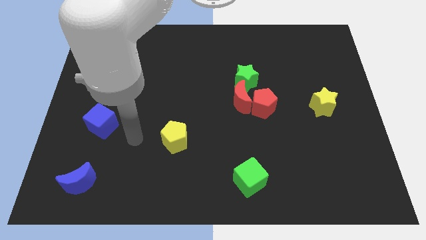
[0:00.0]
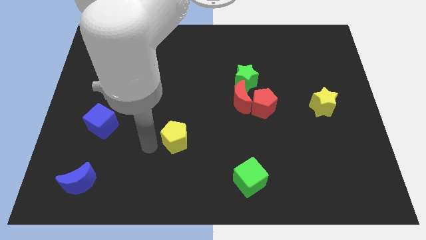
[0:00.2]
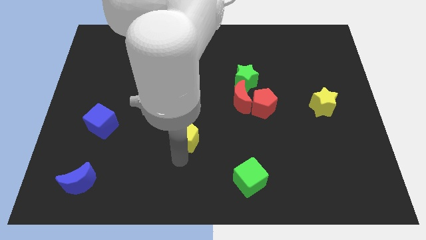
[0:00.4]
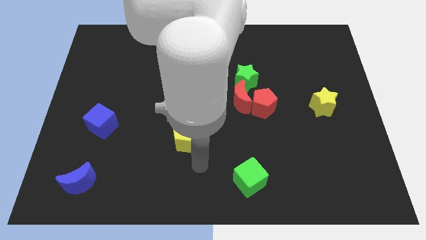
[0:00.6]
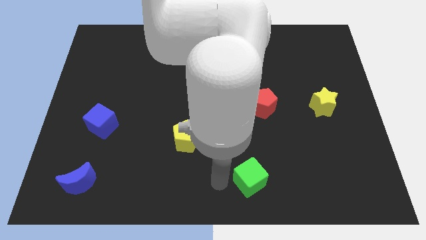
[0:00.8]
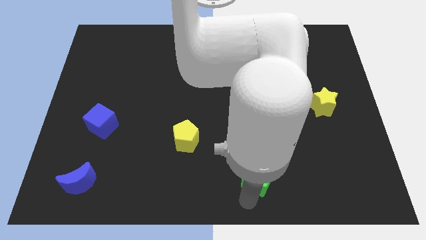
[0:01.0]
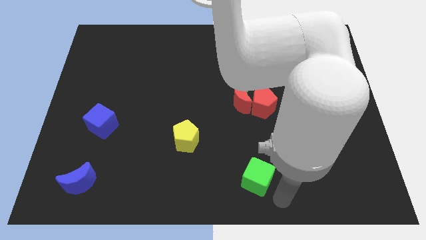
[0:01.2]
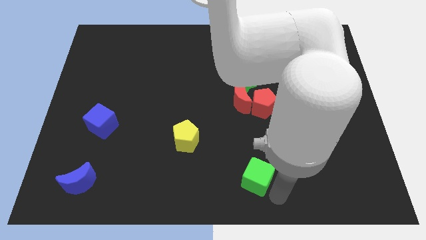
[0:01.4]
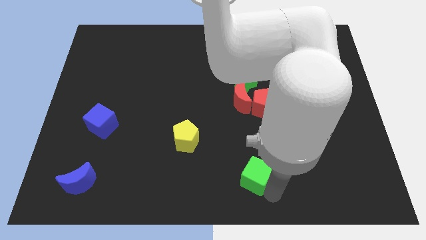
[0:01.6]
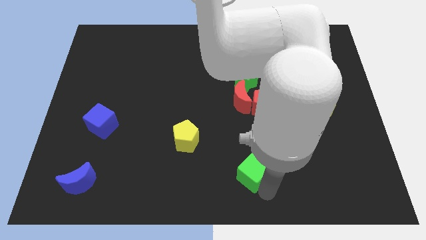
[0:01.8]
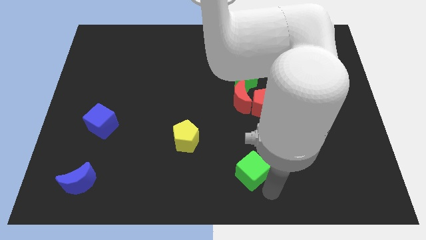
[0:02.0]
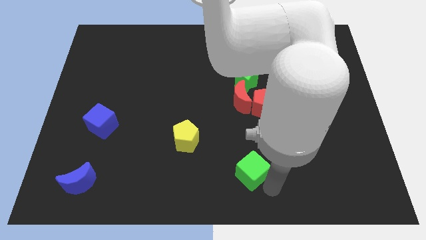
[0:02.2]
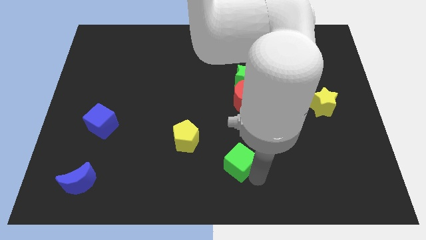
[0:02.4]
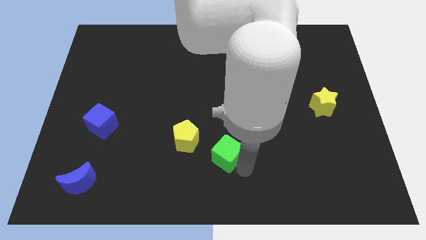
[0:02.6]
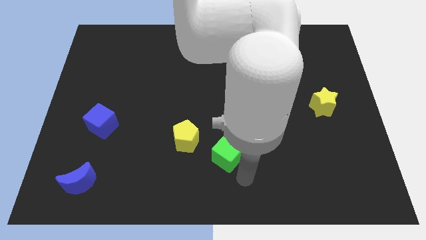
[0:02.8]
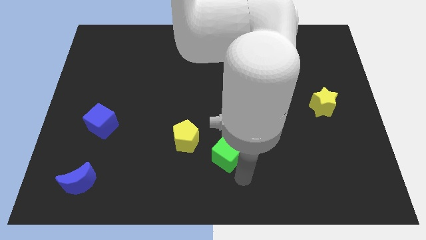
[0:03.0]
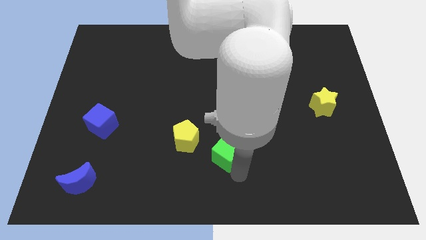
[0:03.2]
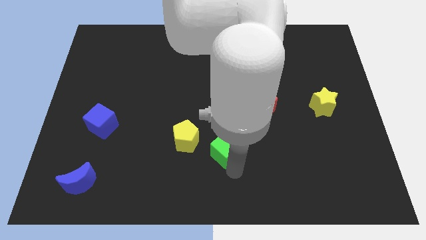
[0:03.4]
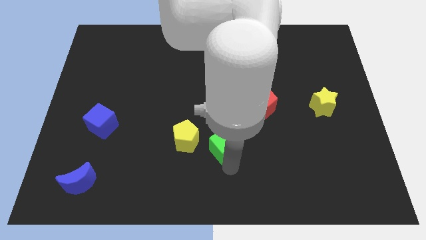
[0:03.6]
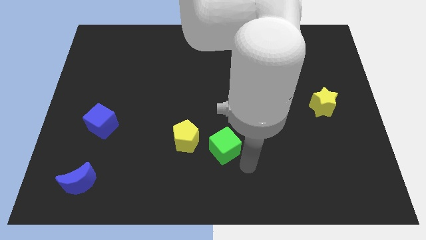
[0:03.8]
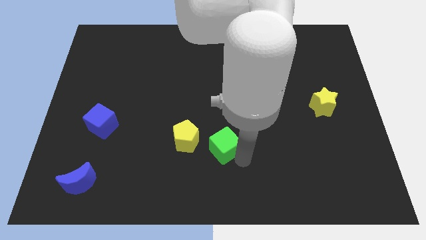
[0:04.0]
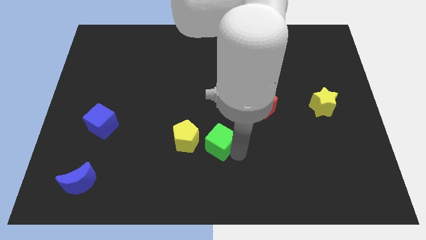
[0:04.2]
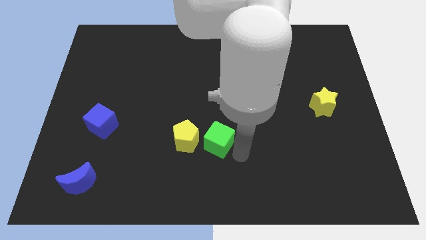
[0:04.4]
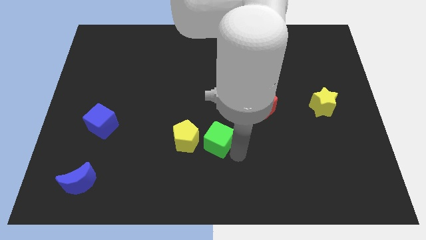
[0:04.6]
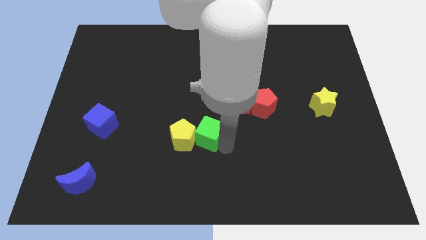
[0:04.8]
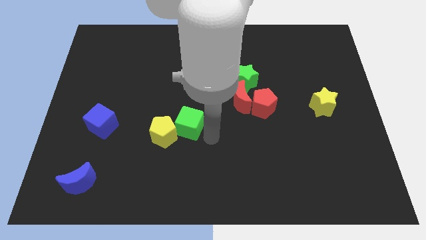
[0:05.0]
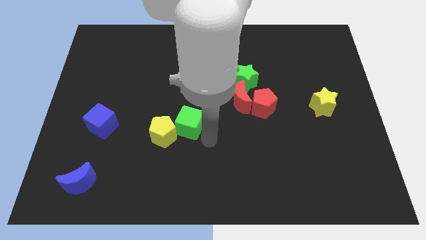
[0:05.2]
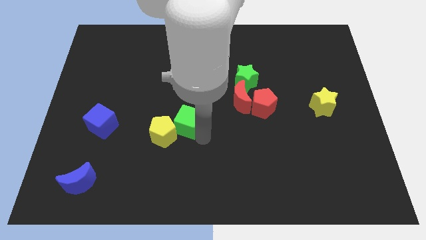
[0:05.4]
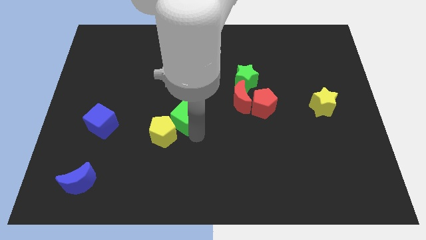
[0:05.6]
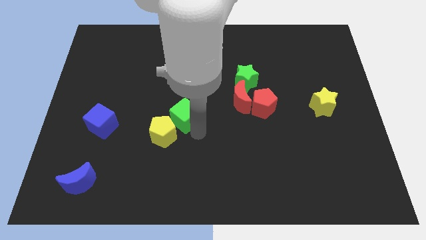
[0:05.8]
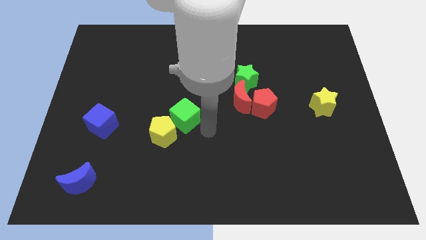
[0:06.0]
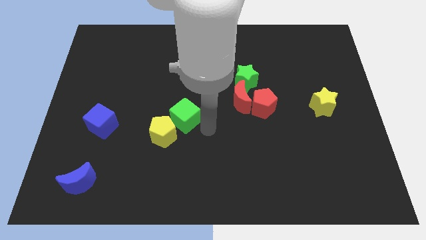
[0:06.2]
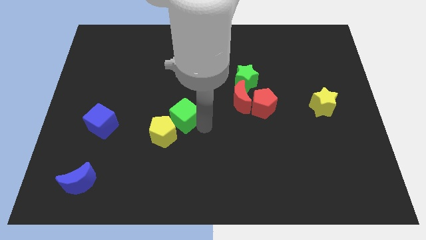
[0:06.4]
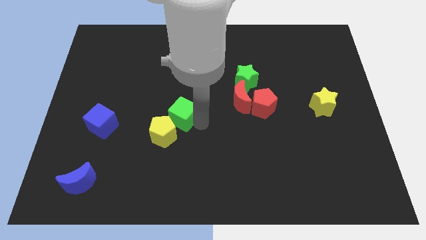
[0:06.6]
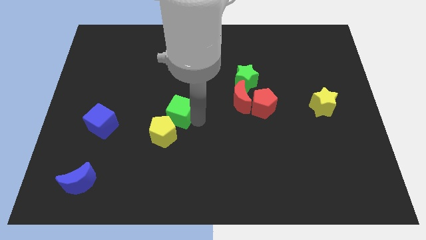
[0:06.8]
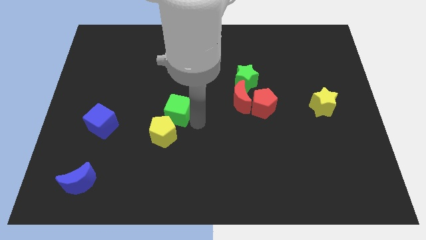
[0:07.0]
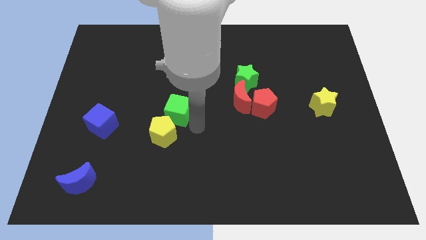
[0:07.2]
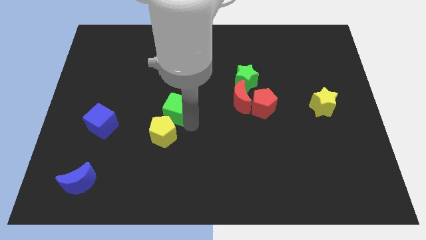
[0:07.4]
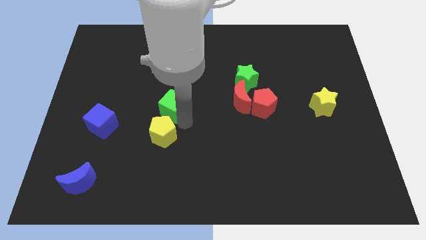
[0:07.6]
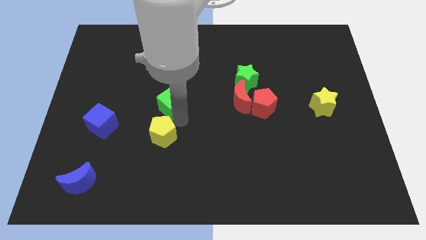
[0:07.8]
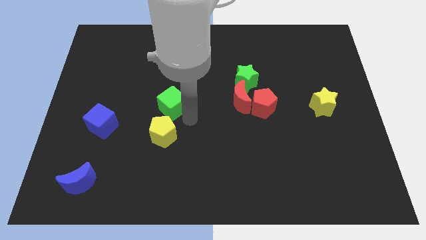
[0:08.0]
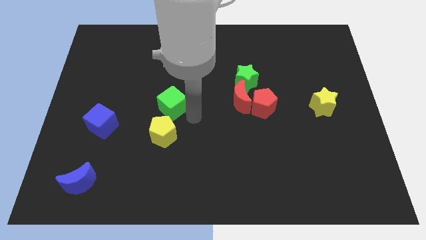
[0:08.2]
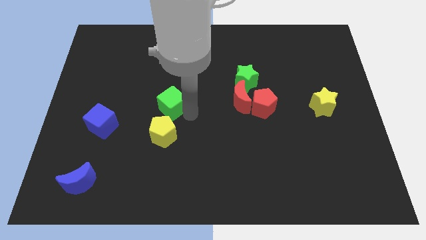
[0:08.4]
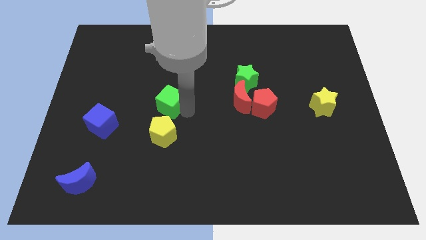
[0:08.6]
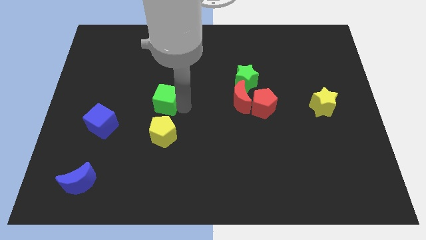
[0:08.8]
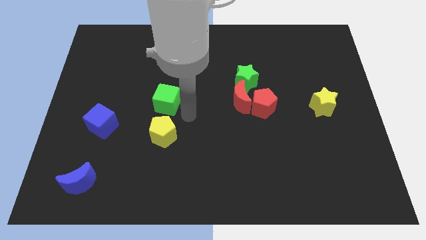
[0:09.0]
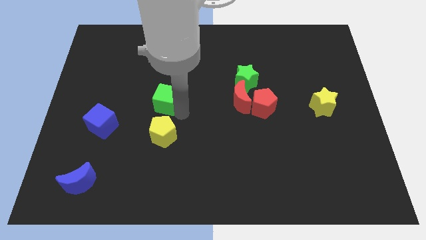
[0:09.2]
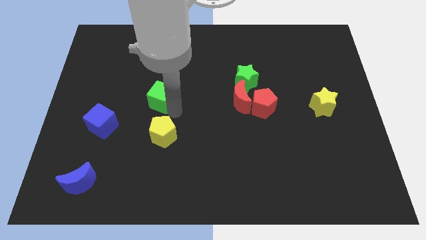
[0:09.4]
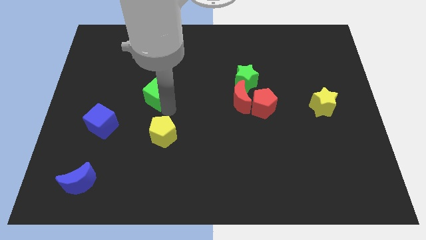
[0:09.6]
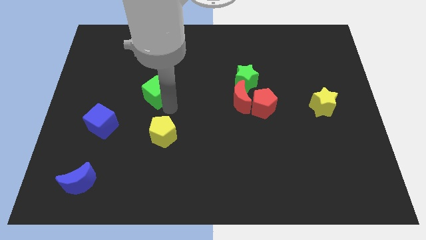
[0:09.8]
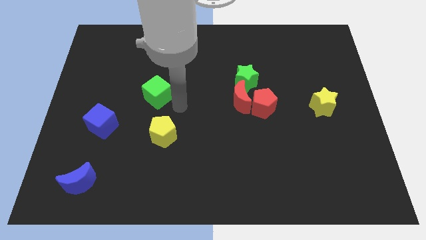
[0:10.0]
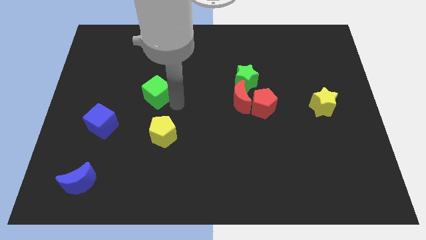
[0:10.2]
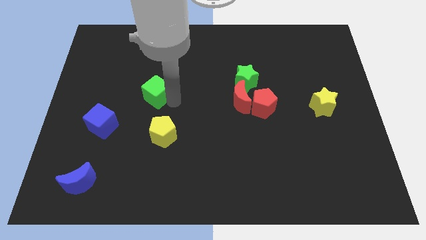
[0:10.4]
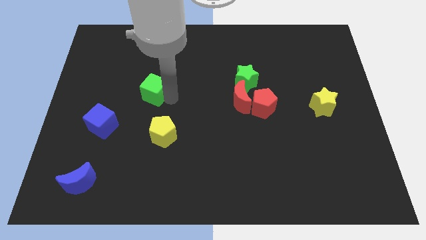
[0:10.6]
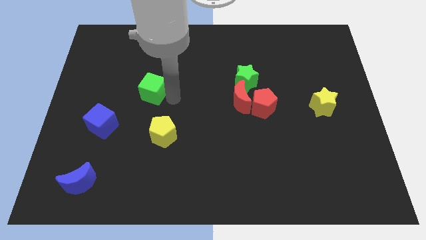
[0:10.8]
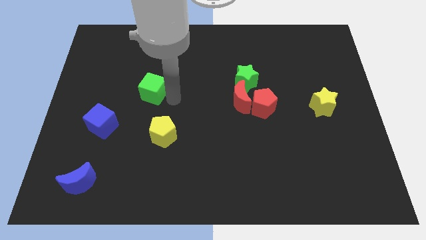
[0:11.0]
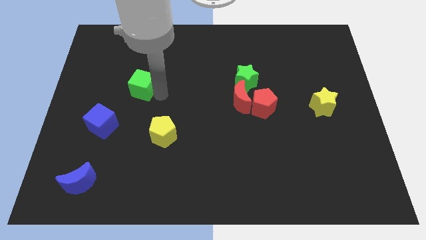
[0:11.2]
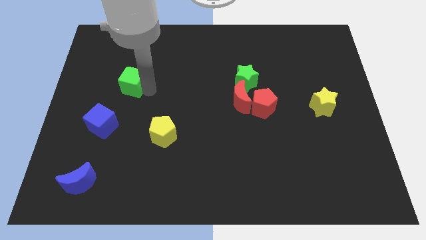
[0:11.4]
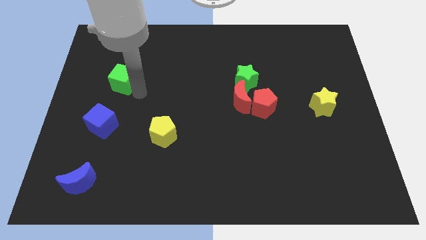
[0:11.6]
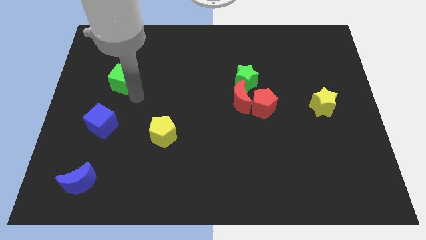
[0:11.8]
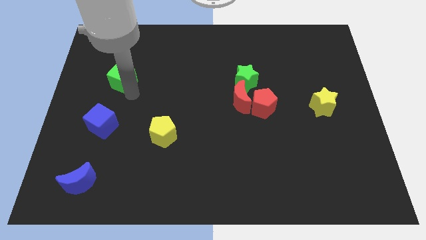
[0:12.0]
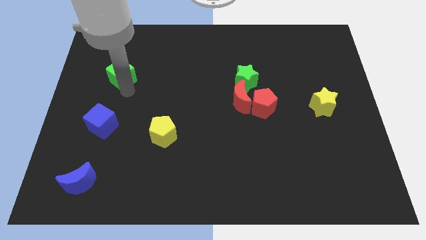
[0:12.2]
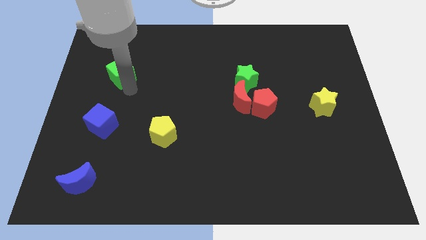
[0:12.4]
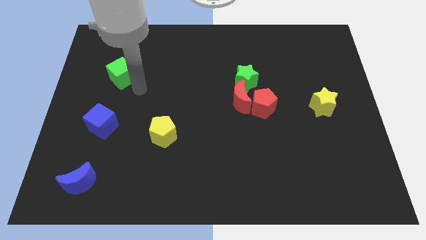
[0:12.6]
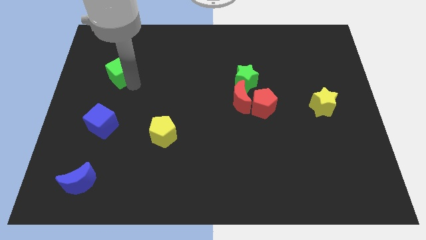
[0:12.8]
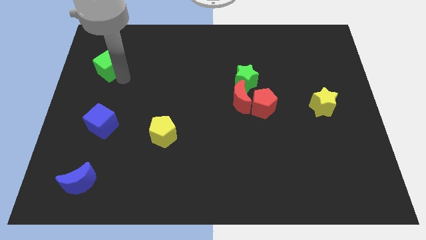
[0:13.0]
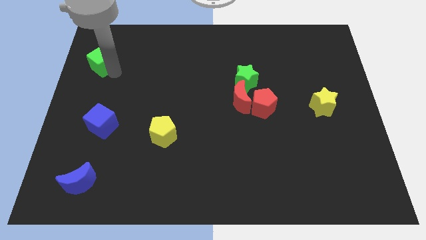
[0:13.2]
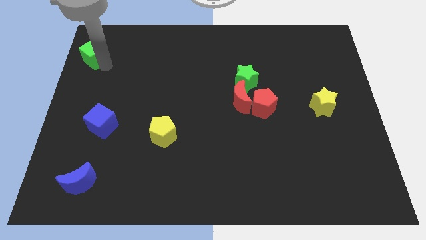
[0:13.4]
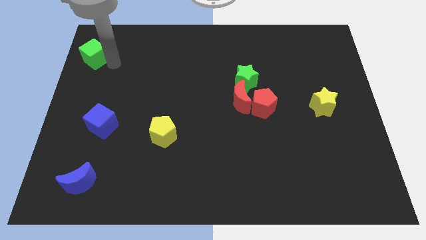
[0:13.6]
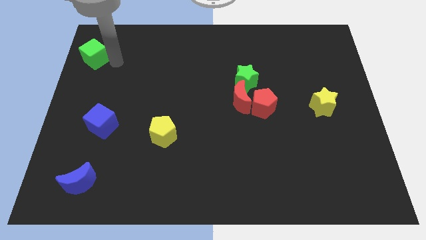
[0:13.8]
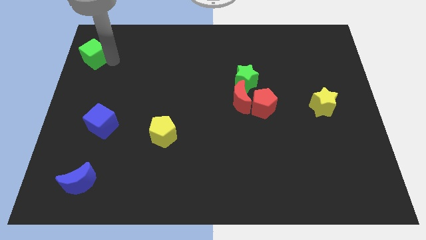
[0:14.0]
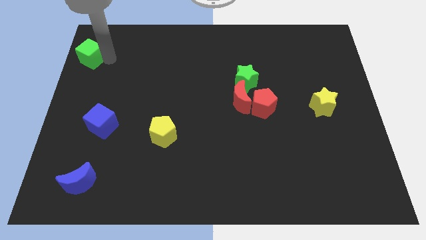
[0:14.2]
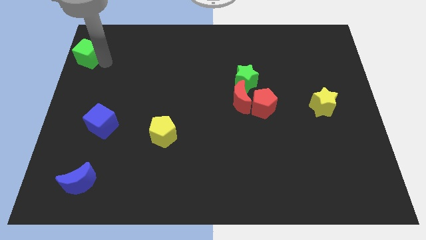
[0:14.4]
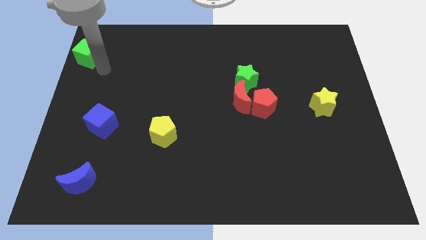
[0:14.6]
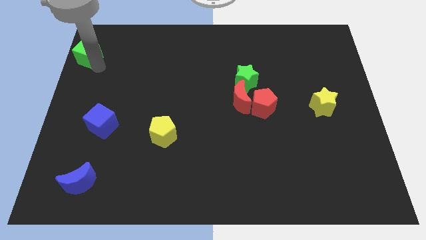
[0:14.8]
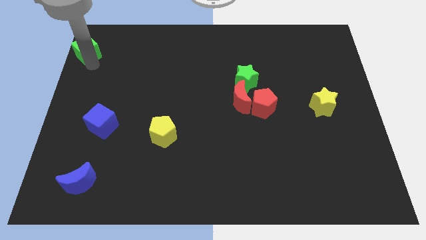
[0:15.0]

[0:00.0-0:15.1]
push the green cube to the top left
